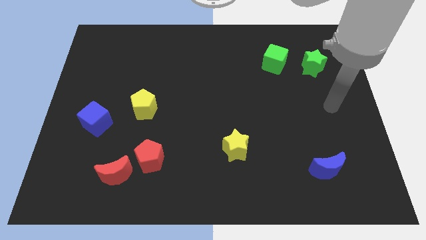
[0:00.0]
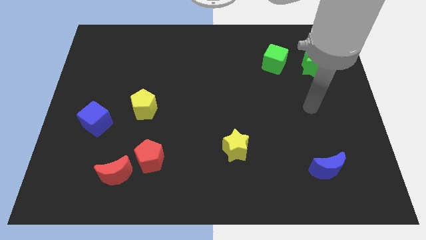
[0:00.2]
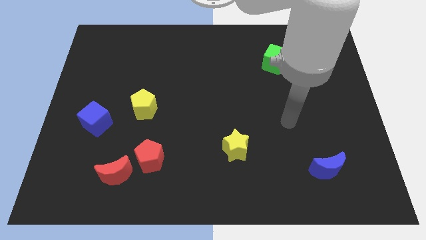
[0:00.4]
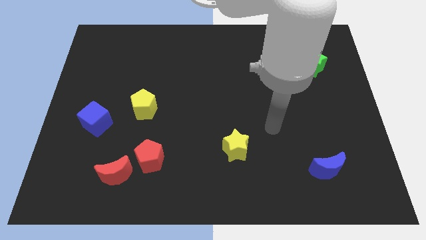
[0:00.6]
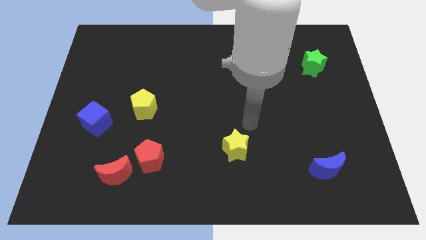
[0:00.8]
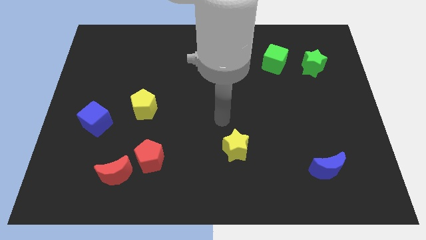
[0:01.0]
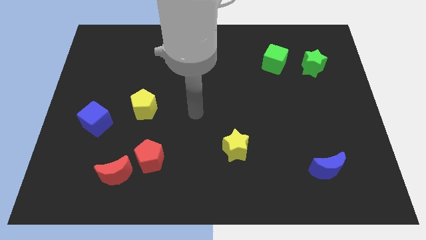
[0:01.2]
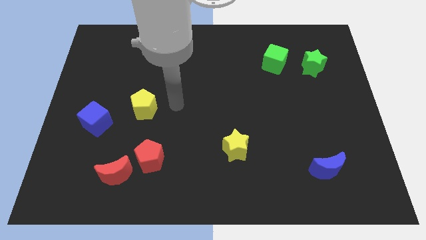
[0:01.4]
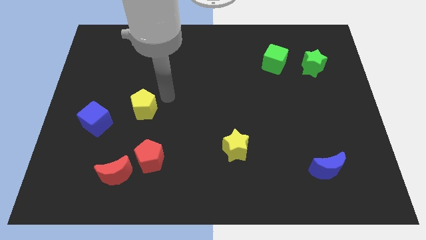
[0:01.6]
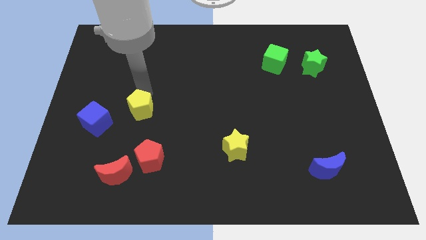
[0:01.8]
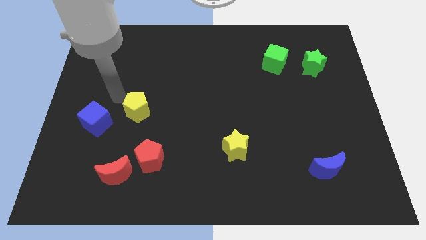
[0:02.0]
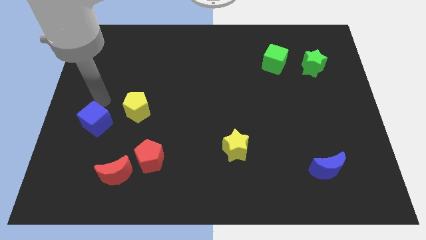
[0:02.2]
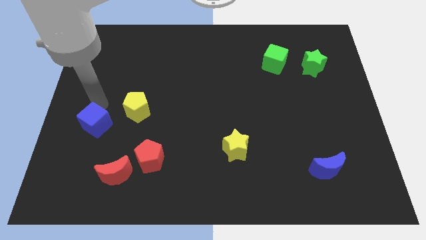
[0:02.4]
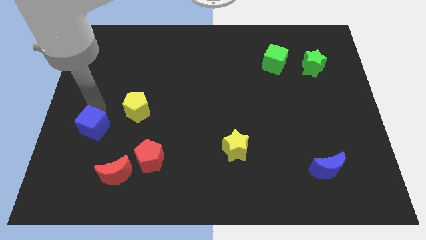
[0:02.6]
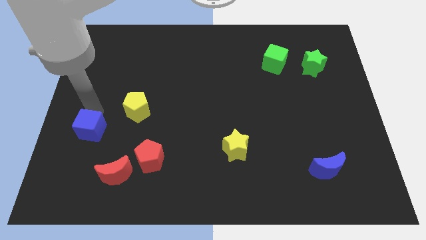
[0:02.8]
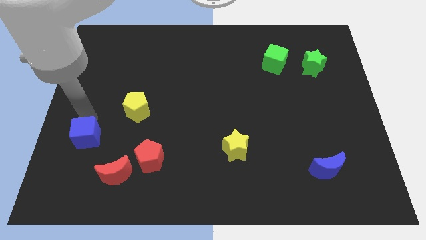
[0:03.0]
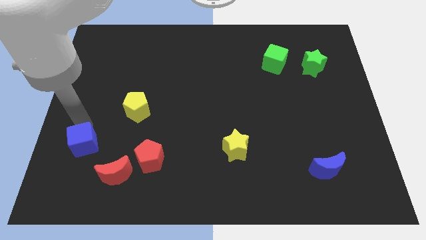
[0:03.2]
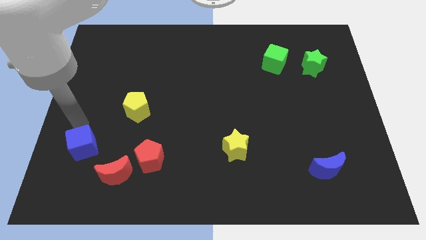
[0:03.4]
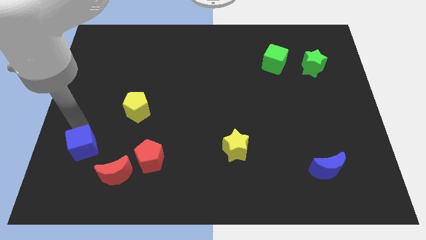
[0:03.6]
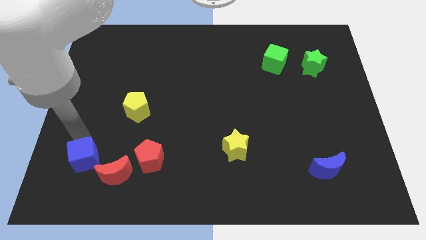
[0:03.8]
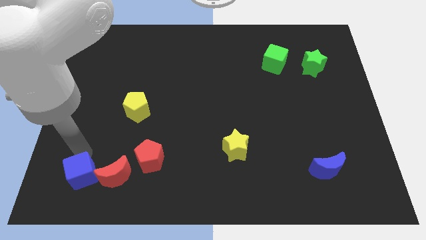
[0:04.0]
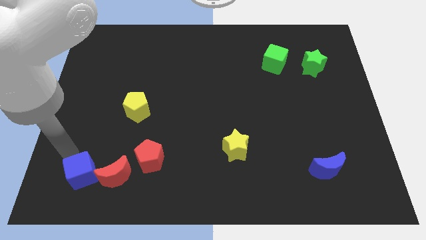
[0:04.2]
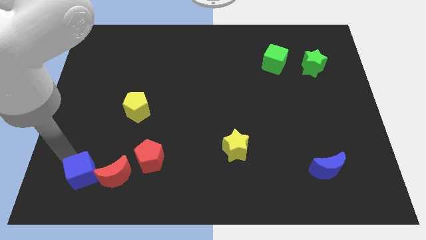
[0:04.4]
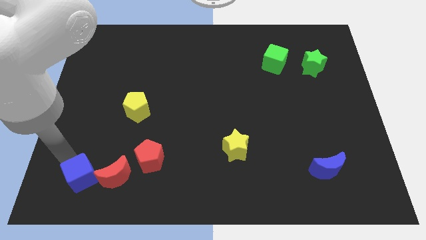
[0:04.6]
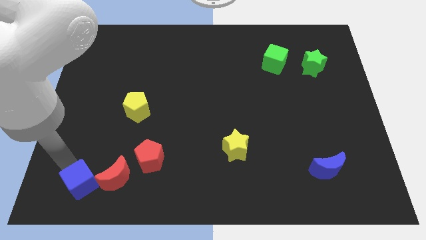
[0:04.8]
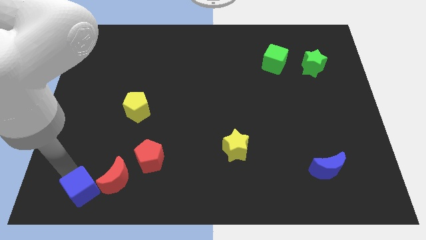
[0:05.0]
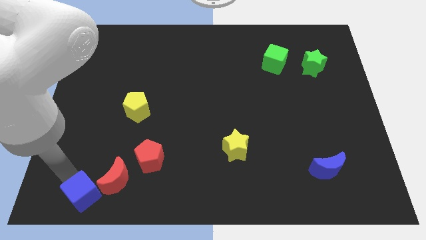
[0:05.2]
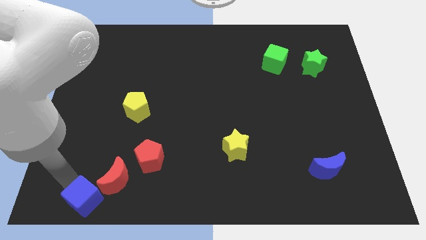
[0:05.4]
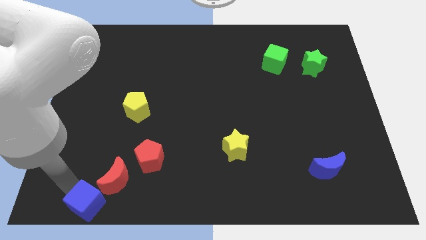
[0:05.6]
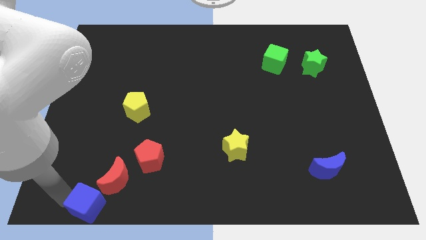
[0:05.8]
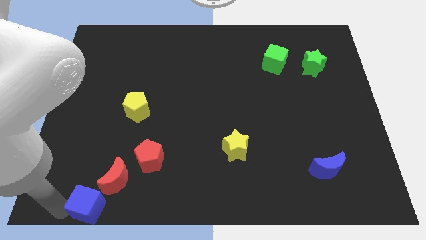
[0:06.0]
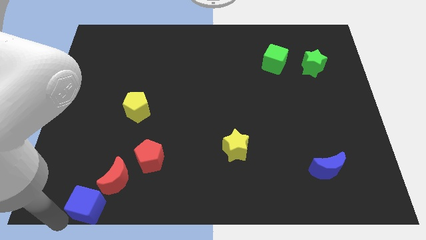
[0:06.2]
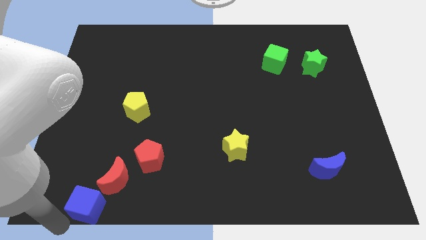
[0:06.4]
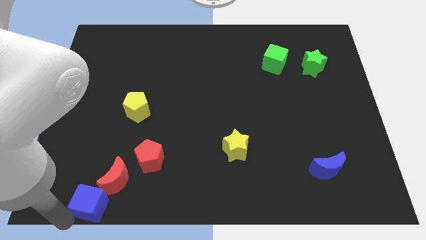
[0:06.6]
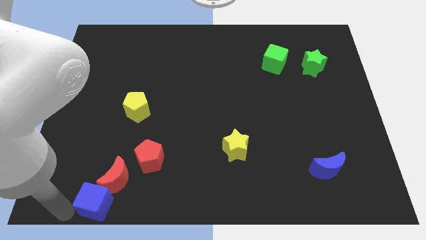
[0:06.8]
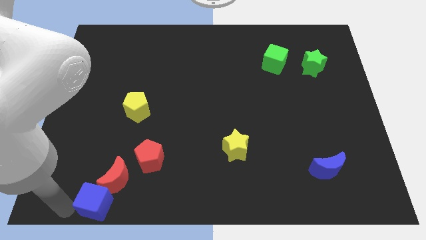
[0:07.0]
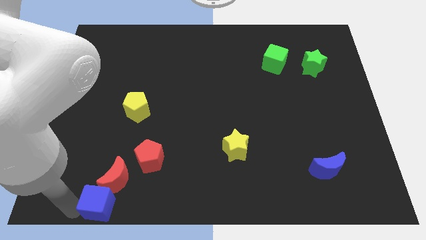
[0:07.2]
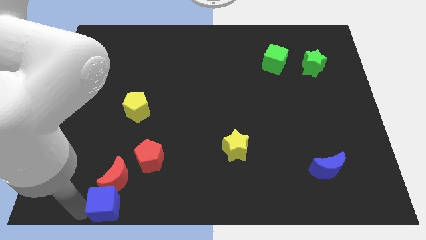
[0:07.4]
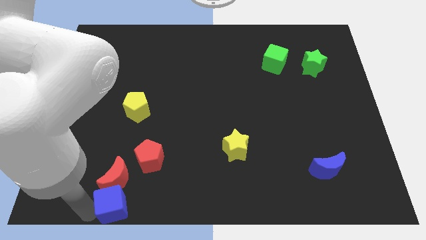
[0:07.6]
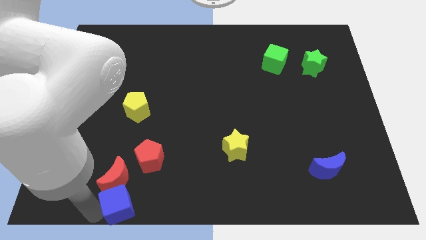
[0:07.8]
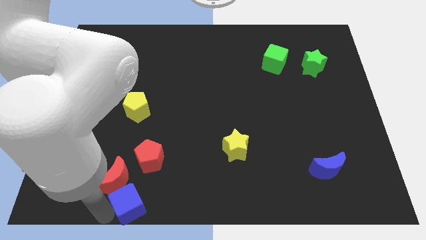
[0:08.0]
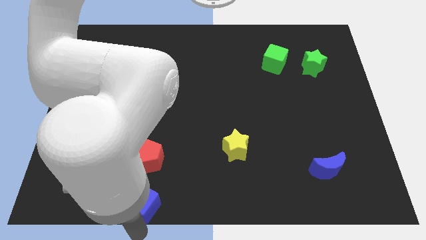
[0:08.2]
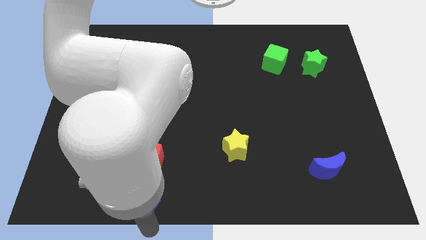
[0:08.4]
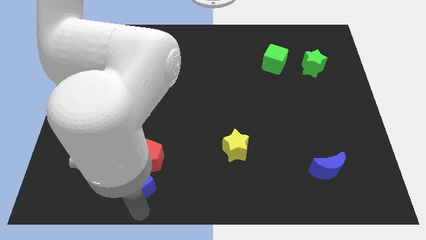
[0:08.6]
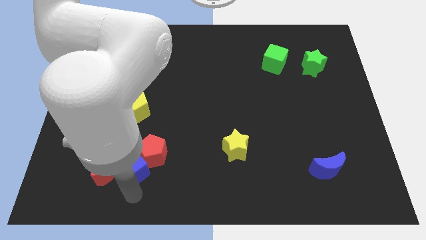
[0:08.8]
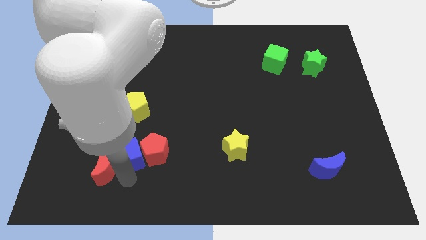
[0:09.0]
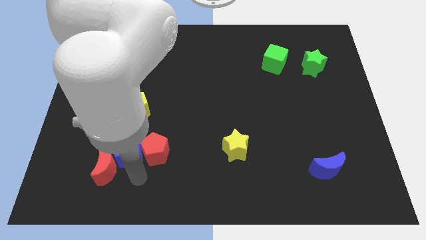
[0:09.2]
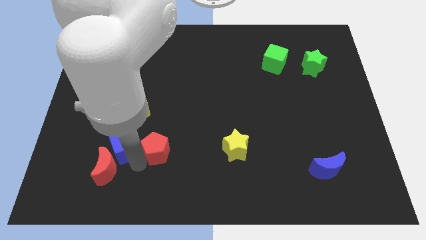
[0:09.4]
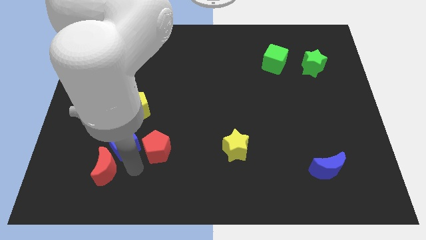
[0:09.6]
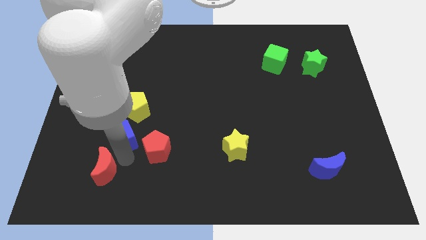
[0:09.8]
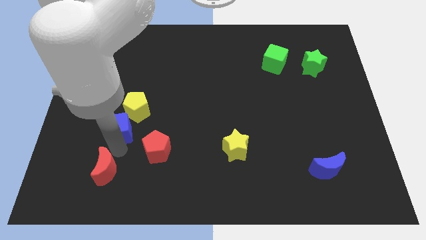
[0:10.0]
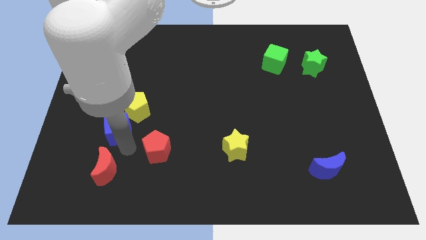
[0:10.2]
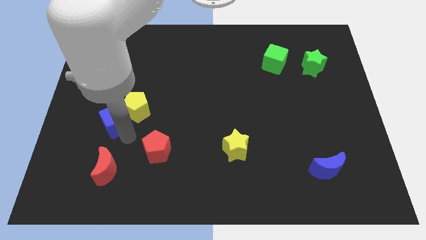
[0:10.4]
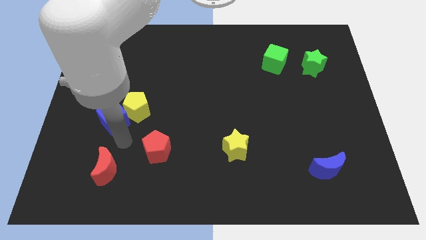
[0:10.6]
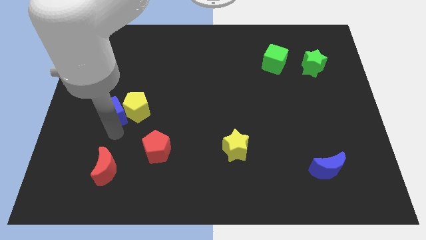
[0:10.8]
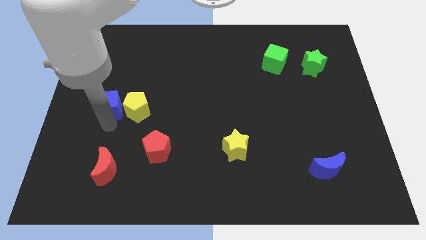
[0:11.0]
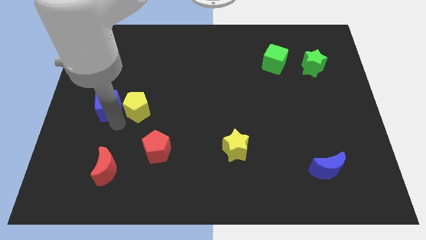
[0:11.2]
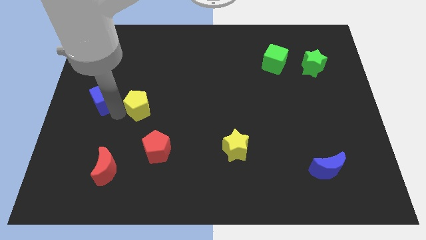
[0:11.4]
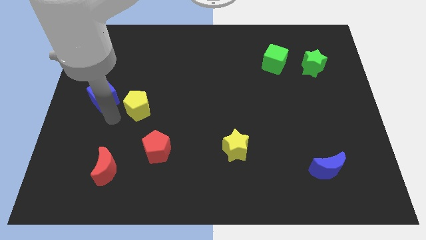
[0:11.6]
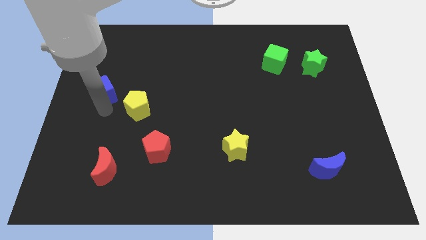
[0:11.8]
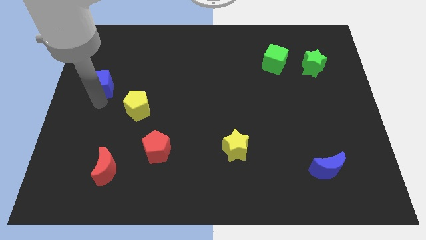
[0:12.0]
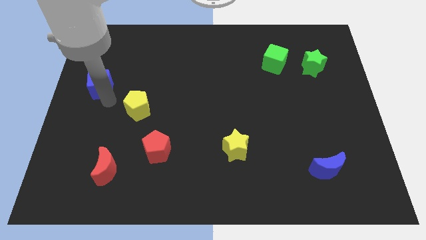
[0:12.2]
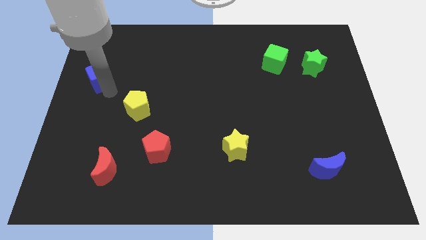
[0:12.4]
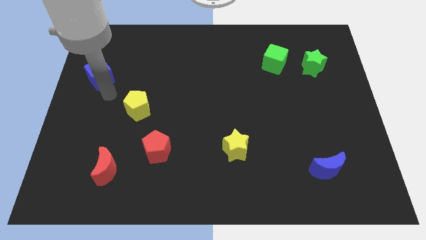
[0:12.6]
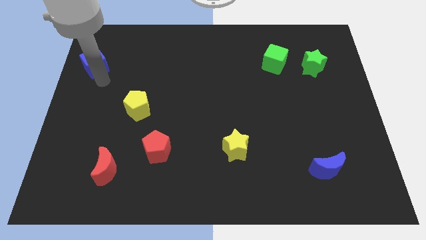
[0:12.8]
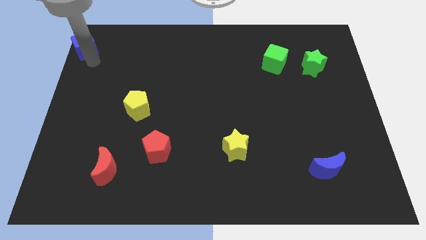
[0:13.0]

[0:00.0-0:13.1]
push the blue cube to the top left of the board
